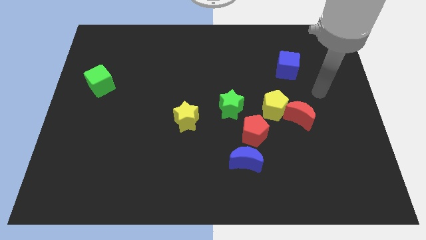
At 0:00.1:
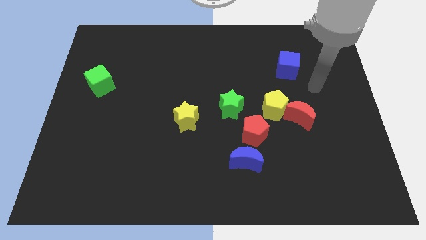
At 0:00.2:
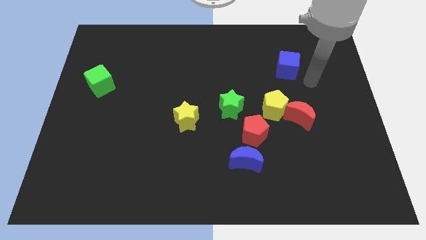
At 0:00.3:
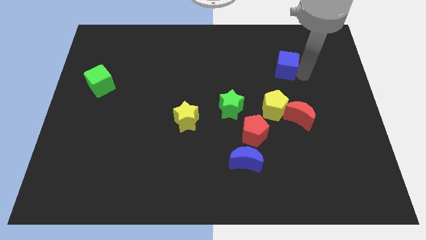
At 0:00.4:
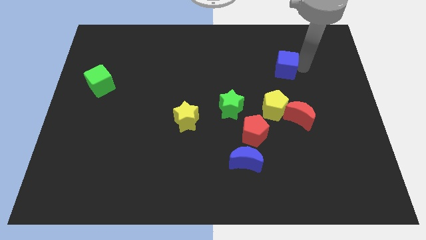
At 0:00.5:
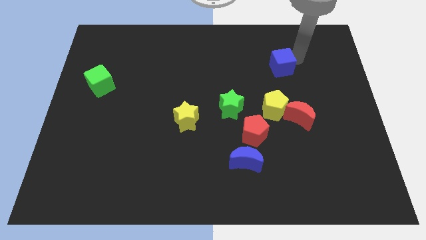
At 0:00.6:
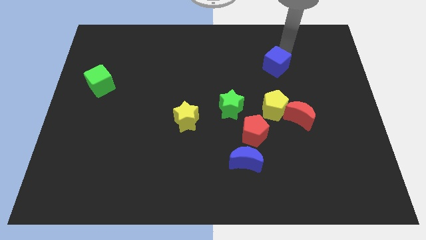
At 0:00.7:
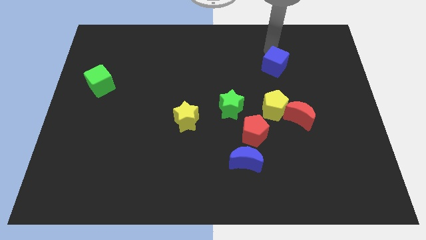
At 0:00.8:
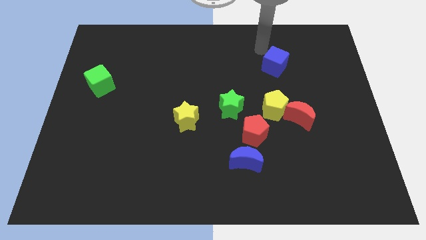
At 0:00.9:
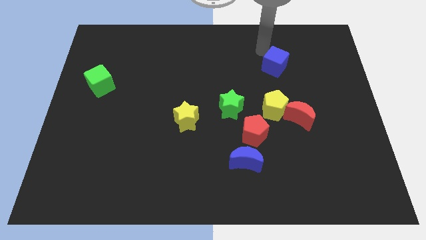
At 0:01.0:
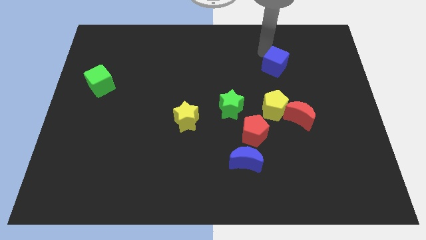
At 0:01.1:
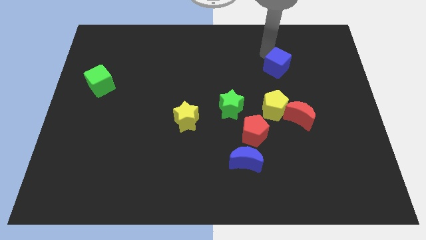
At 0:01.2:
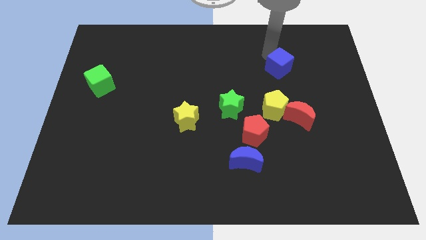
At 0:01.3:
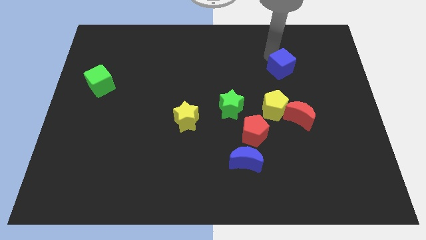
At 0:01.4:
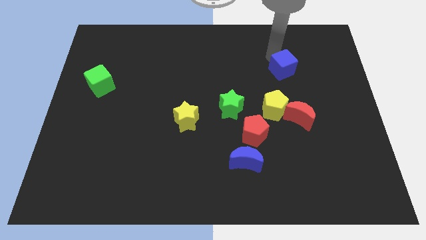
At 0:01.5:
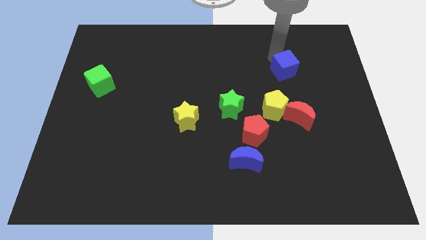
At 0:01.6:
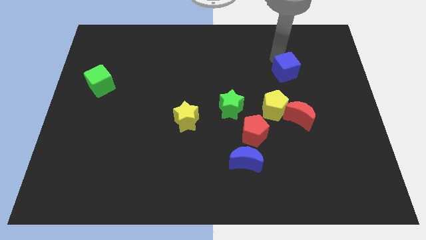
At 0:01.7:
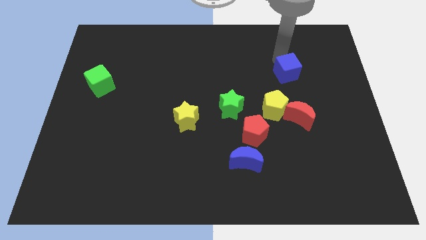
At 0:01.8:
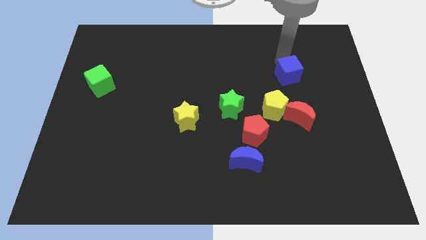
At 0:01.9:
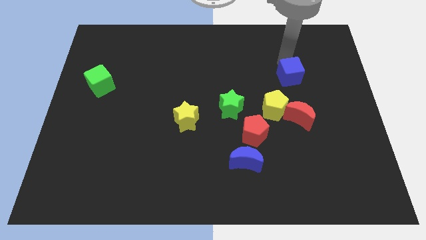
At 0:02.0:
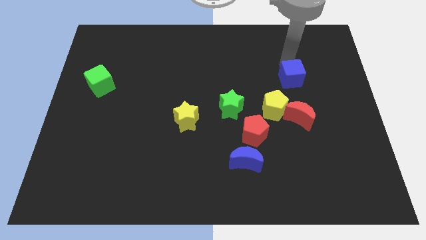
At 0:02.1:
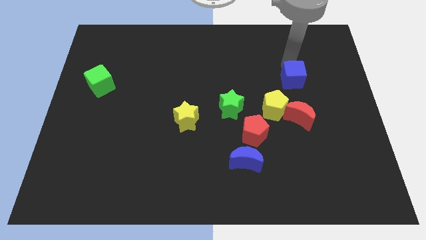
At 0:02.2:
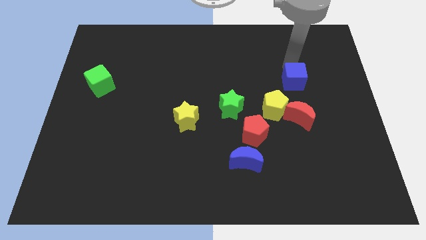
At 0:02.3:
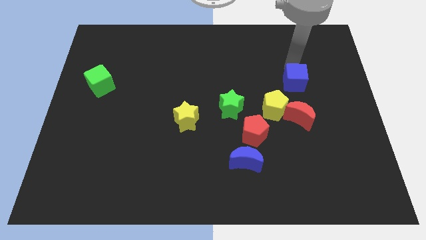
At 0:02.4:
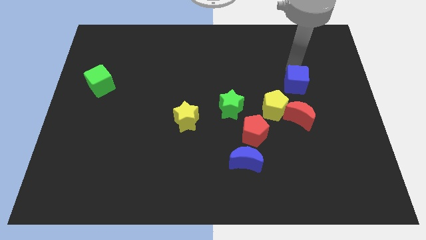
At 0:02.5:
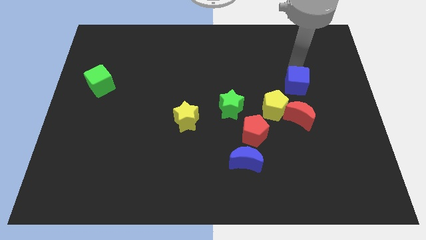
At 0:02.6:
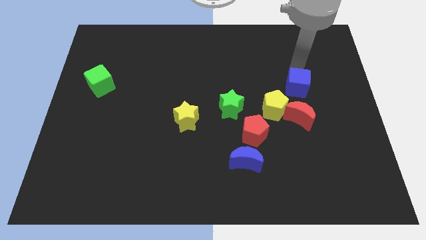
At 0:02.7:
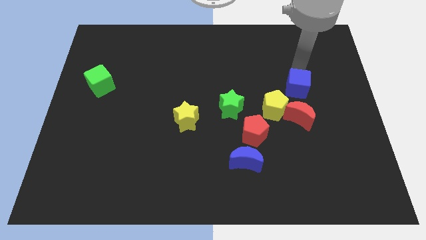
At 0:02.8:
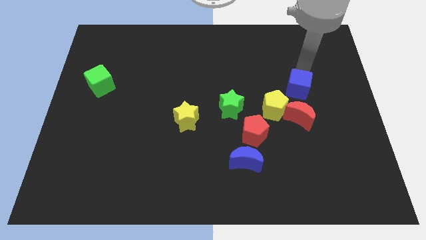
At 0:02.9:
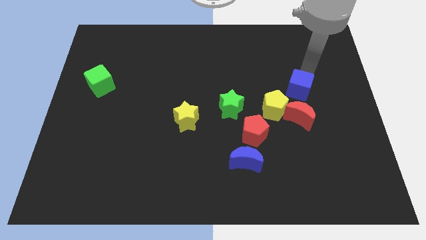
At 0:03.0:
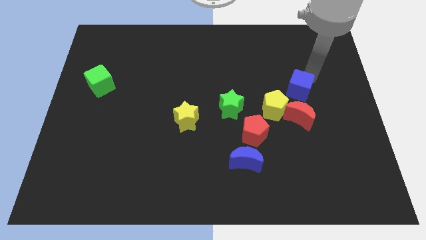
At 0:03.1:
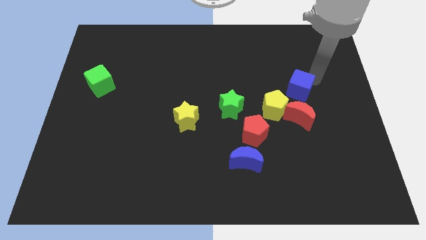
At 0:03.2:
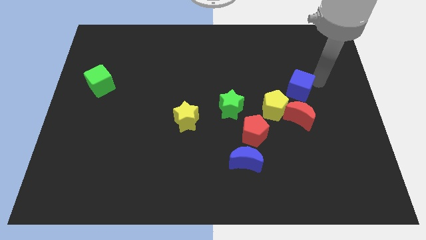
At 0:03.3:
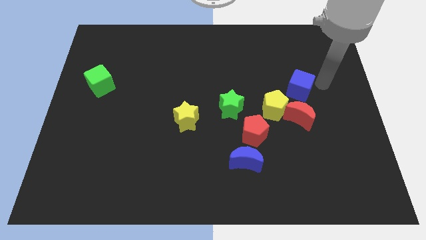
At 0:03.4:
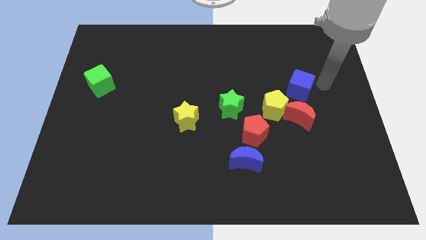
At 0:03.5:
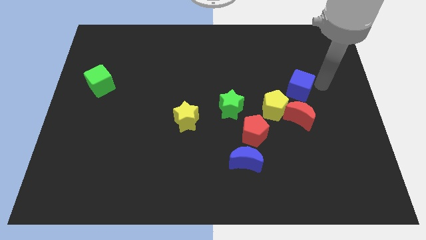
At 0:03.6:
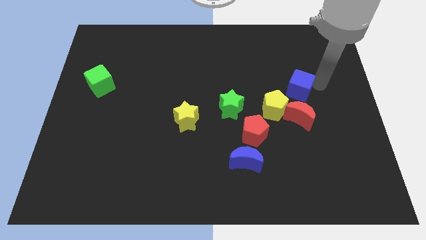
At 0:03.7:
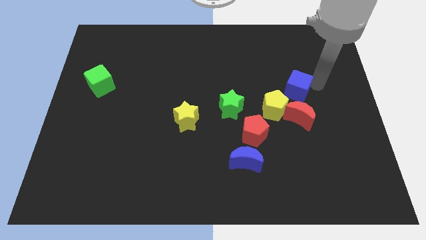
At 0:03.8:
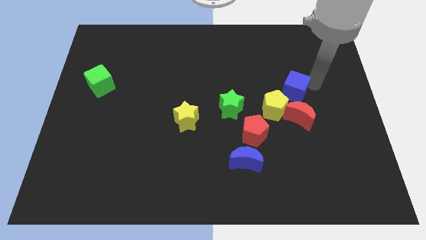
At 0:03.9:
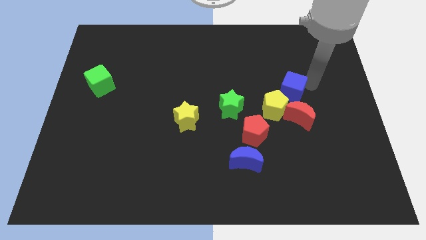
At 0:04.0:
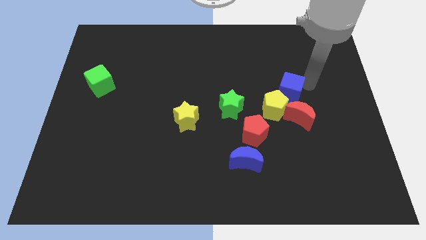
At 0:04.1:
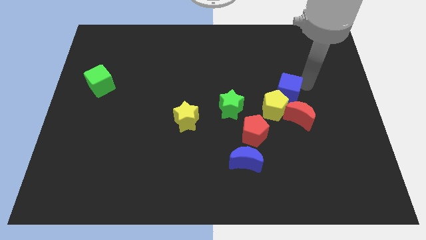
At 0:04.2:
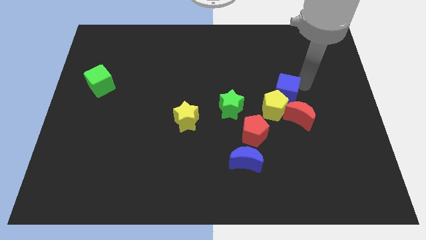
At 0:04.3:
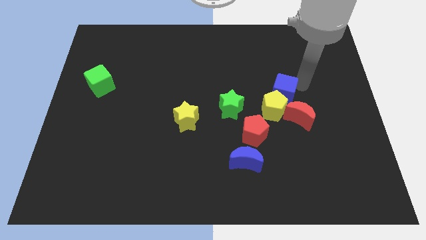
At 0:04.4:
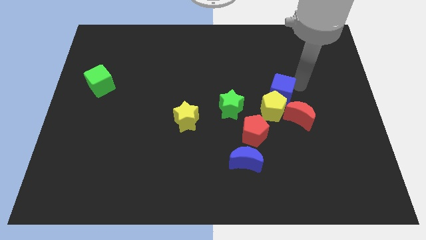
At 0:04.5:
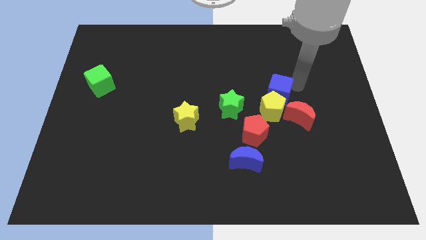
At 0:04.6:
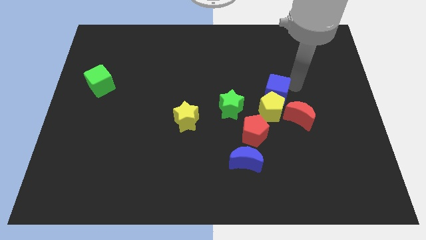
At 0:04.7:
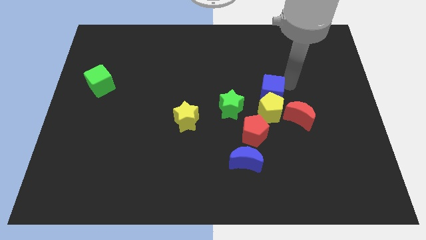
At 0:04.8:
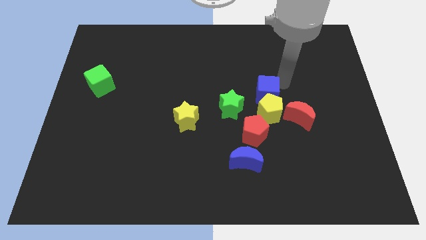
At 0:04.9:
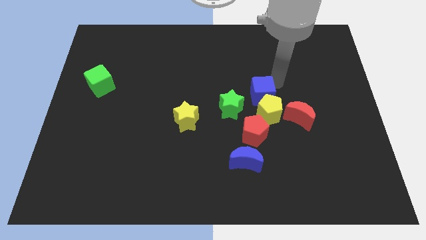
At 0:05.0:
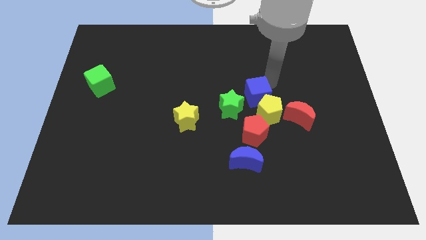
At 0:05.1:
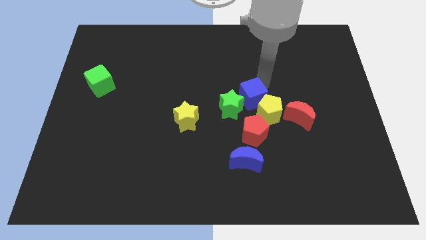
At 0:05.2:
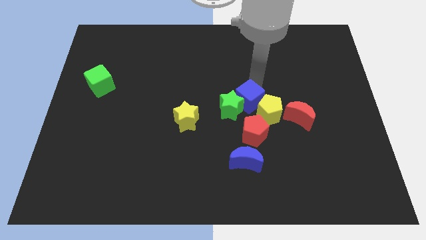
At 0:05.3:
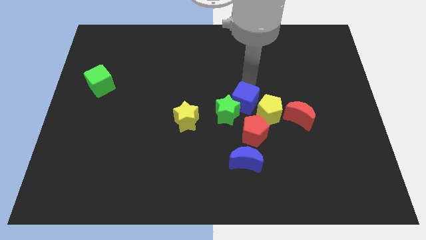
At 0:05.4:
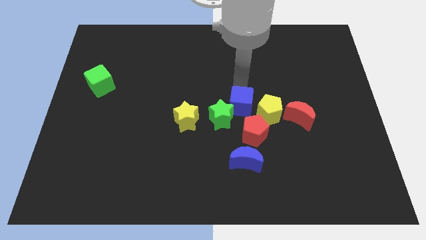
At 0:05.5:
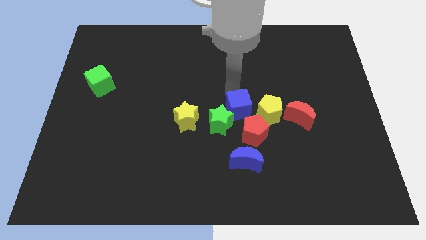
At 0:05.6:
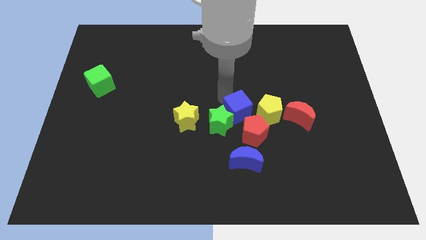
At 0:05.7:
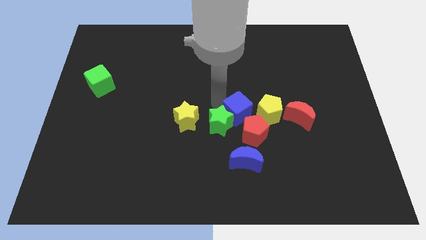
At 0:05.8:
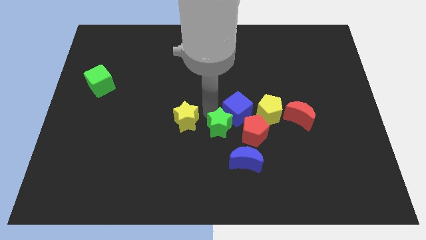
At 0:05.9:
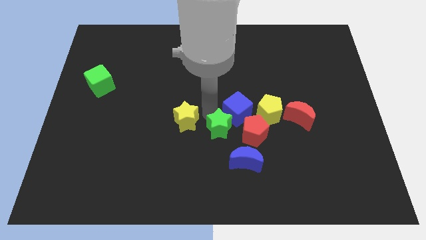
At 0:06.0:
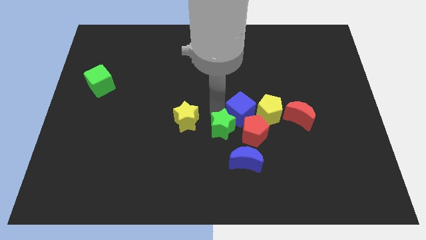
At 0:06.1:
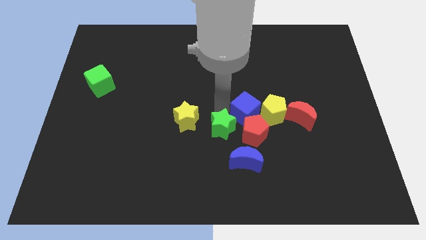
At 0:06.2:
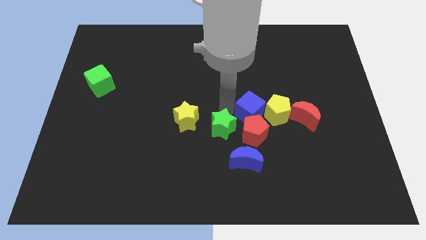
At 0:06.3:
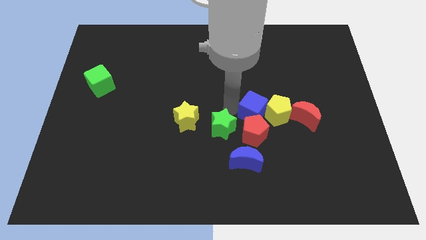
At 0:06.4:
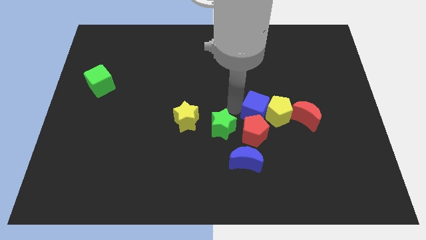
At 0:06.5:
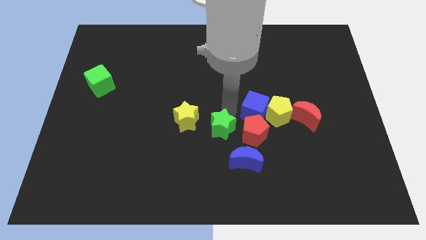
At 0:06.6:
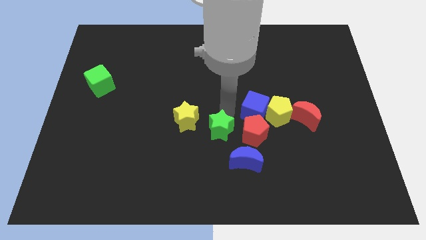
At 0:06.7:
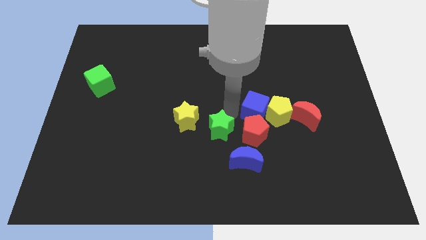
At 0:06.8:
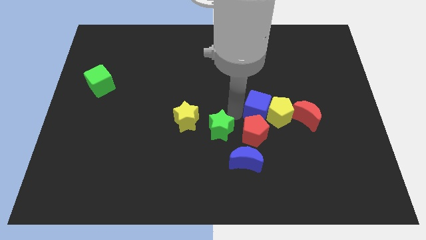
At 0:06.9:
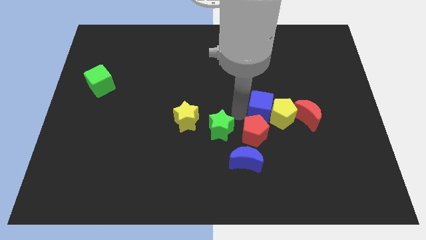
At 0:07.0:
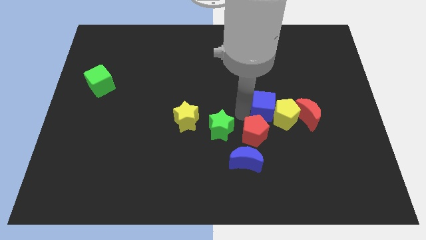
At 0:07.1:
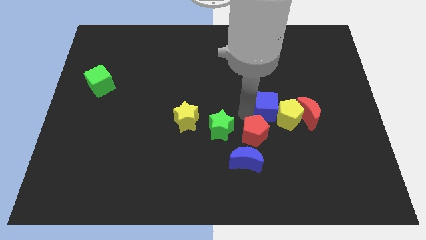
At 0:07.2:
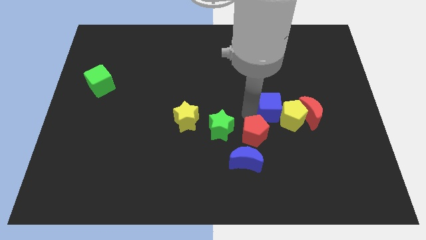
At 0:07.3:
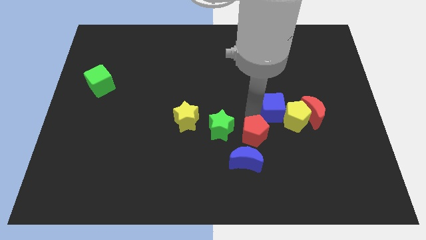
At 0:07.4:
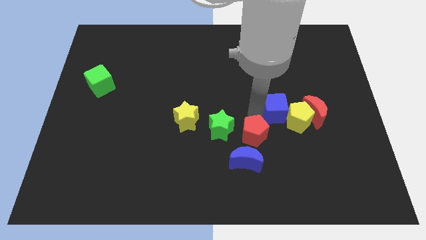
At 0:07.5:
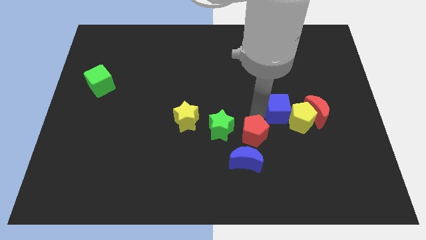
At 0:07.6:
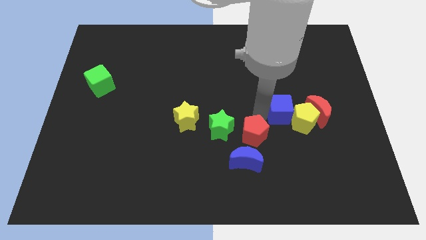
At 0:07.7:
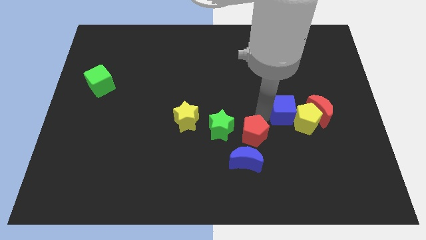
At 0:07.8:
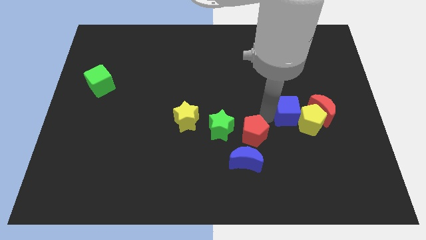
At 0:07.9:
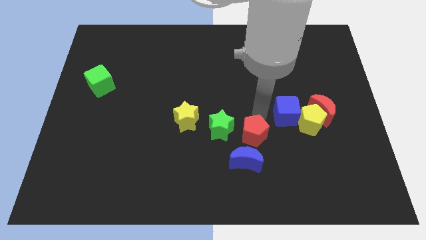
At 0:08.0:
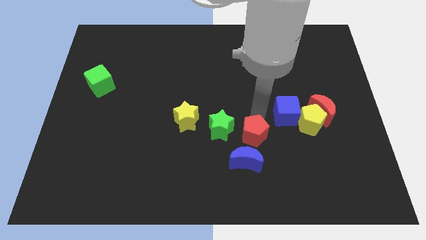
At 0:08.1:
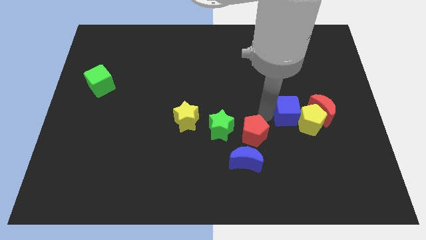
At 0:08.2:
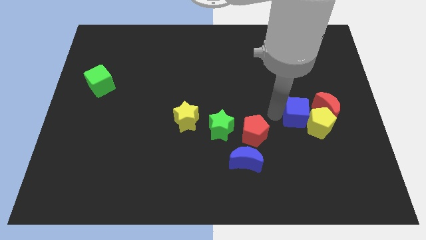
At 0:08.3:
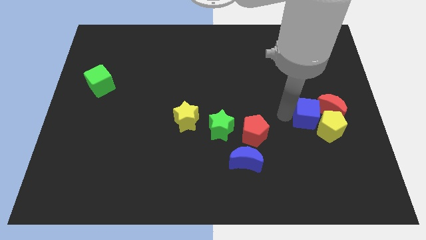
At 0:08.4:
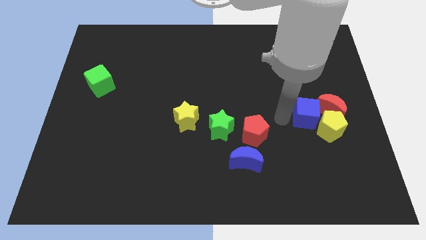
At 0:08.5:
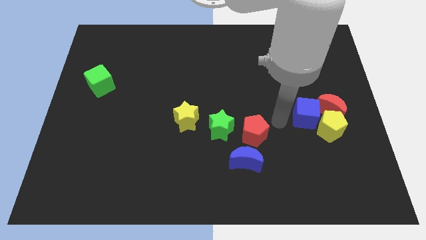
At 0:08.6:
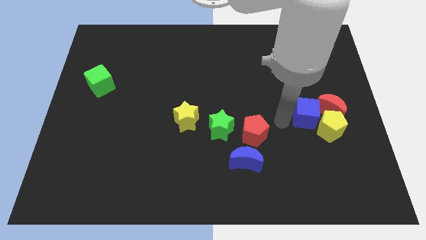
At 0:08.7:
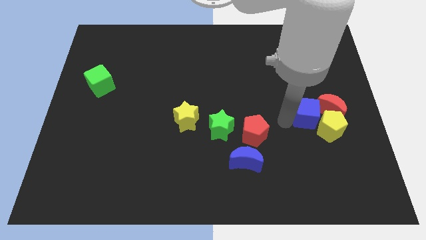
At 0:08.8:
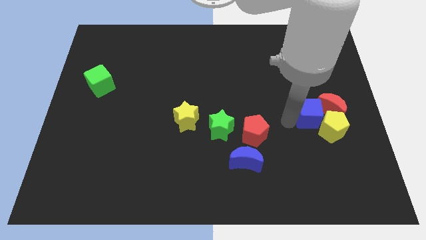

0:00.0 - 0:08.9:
push the blue cube towards the red moon
